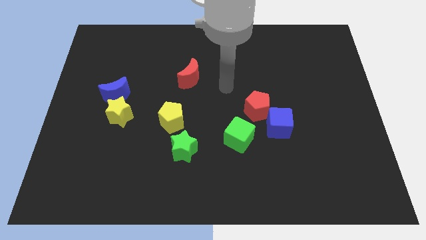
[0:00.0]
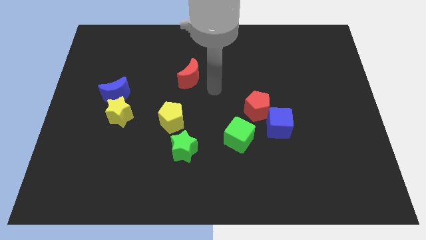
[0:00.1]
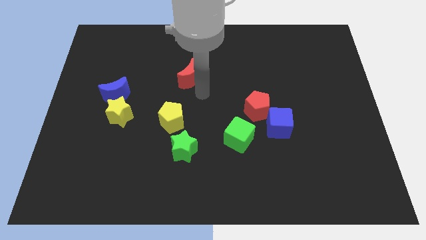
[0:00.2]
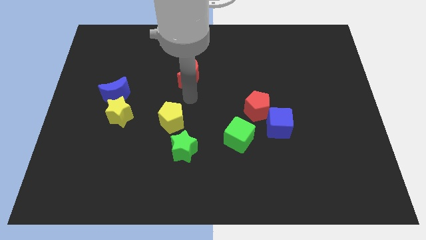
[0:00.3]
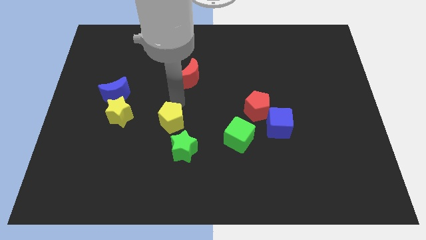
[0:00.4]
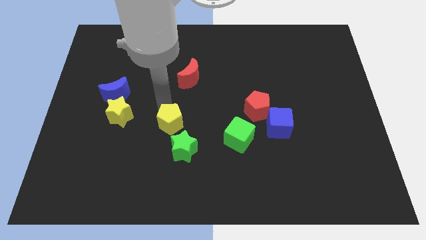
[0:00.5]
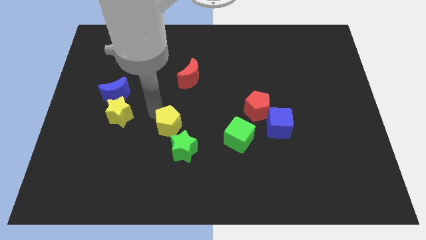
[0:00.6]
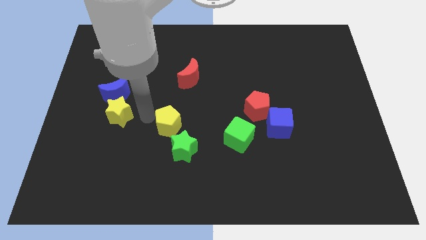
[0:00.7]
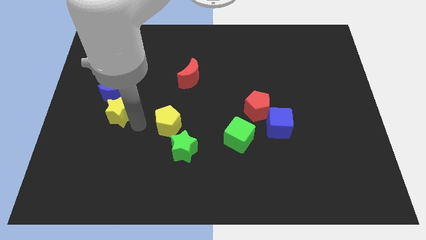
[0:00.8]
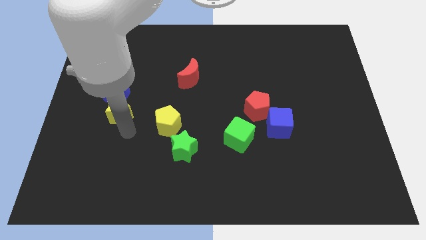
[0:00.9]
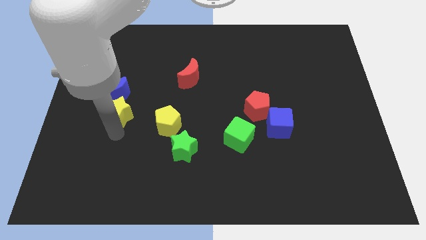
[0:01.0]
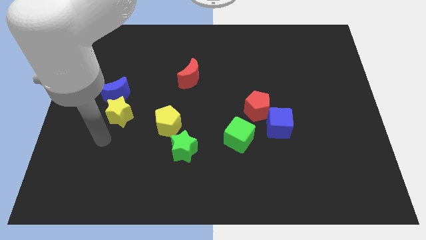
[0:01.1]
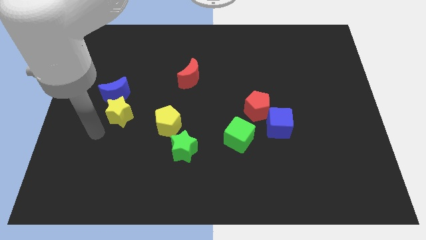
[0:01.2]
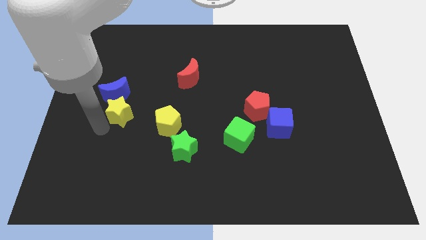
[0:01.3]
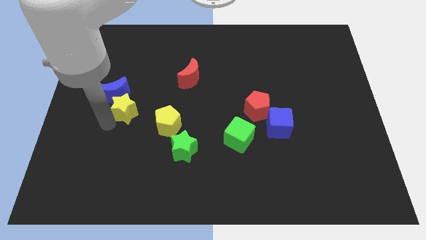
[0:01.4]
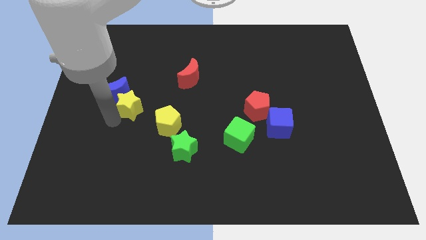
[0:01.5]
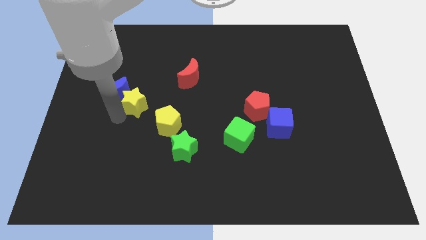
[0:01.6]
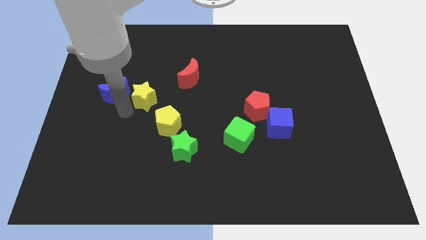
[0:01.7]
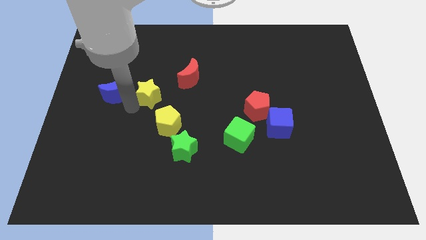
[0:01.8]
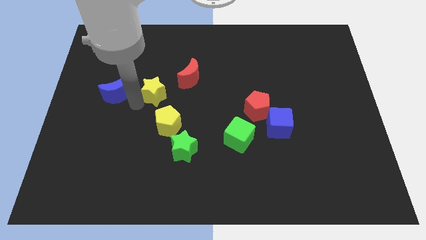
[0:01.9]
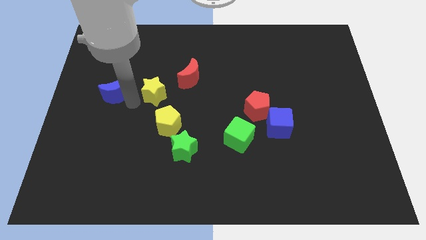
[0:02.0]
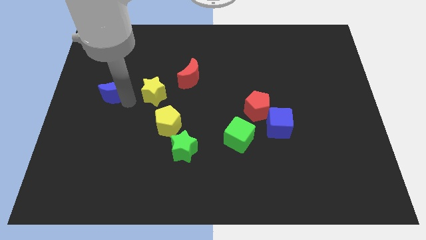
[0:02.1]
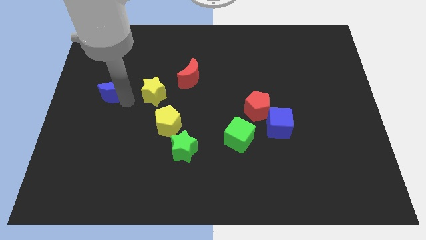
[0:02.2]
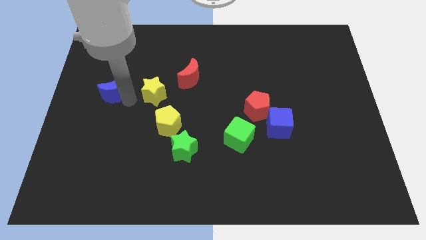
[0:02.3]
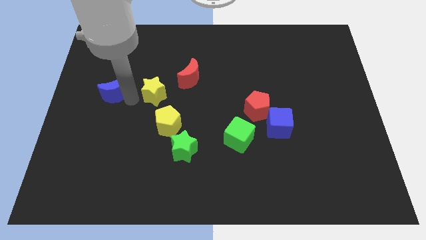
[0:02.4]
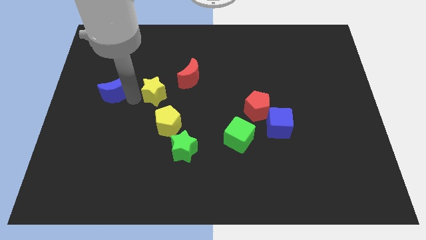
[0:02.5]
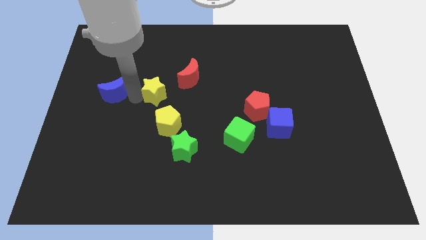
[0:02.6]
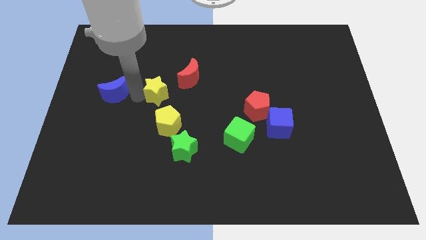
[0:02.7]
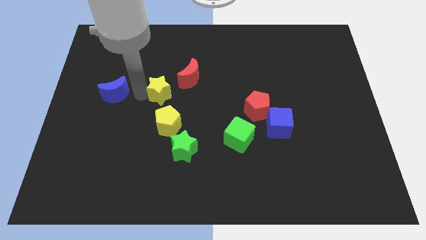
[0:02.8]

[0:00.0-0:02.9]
slightly slide the yellow star right

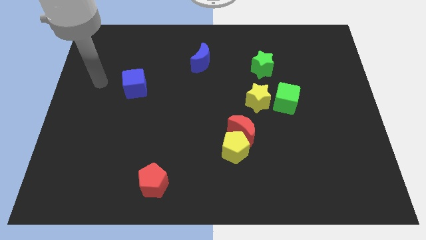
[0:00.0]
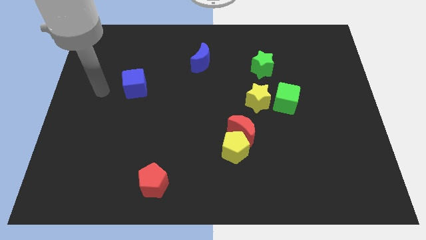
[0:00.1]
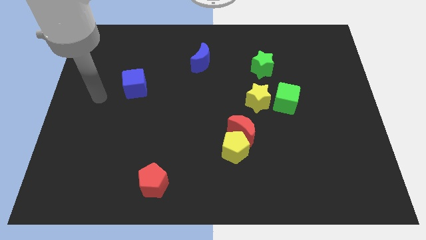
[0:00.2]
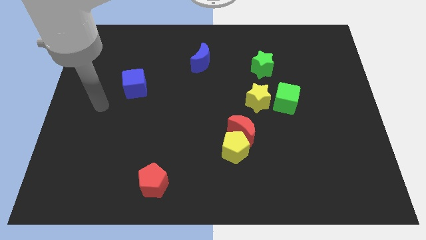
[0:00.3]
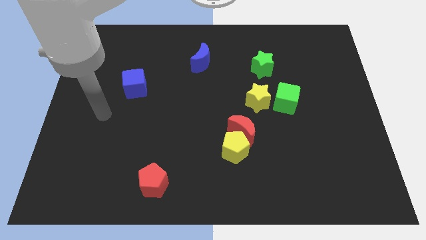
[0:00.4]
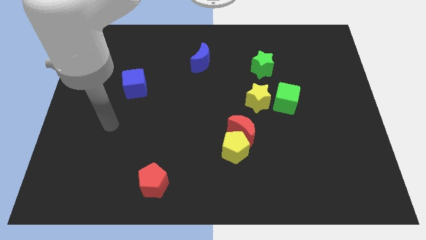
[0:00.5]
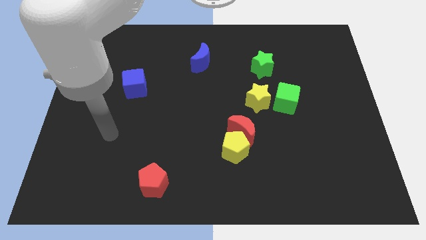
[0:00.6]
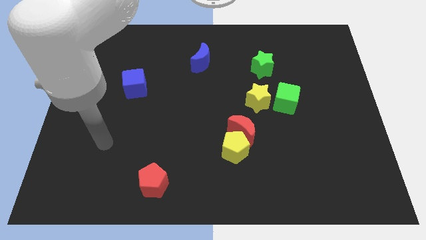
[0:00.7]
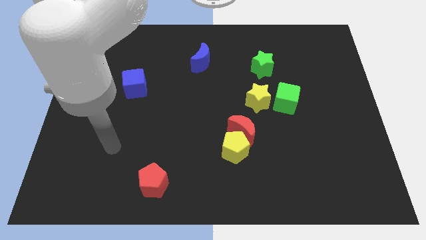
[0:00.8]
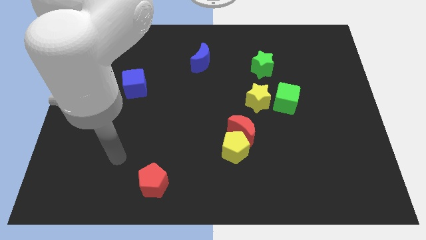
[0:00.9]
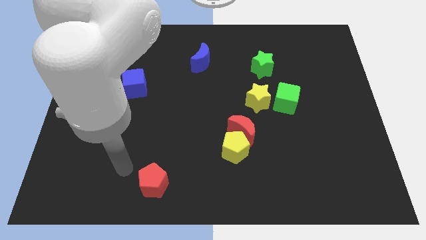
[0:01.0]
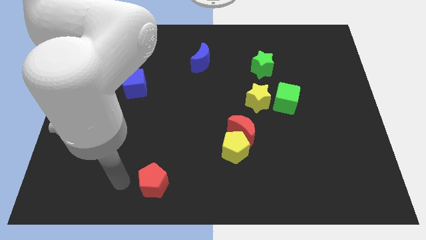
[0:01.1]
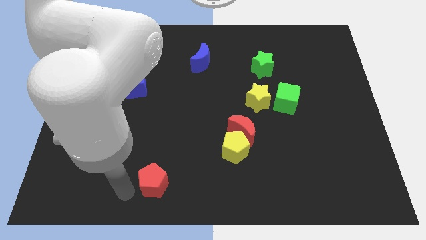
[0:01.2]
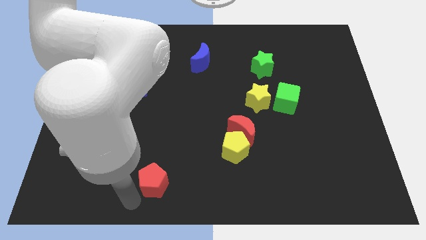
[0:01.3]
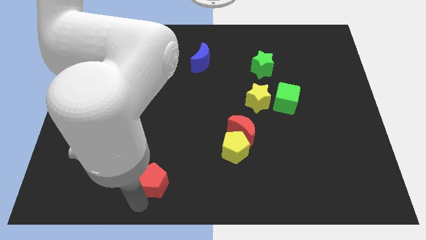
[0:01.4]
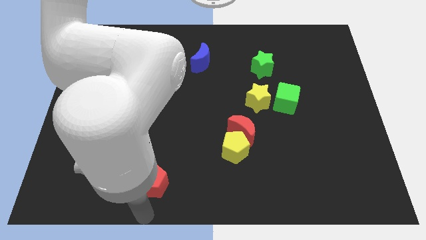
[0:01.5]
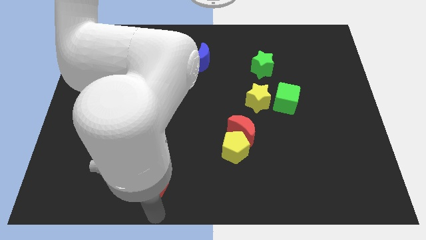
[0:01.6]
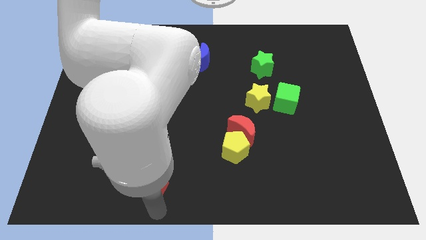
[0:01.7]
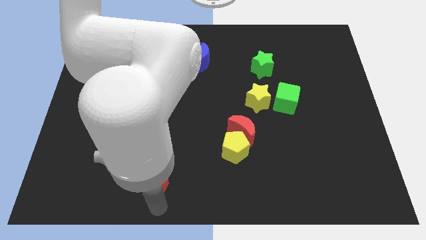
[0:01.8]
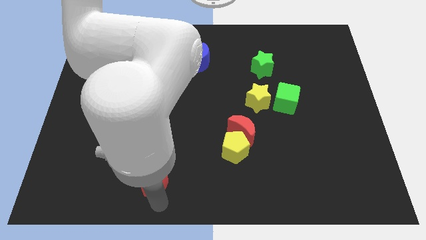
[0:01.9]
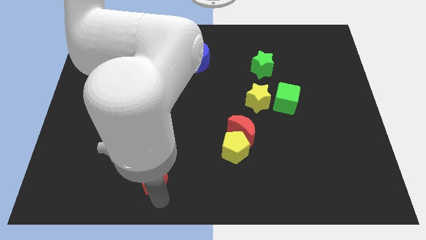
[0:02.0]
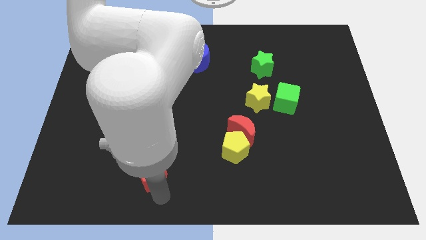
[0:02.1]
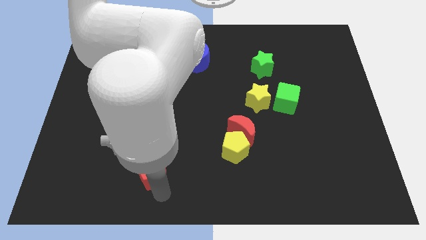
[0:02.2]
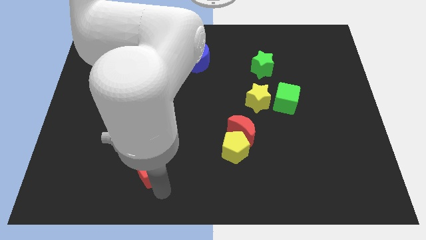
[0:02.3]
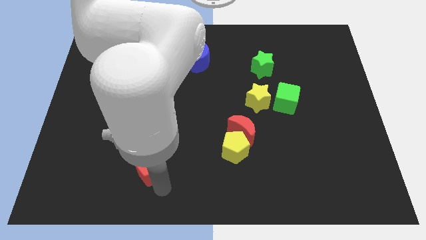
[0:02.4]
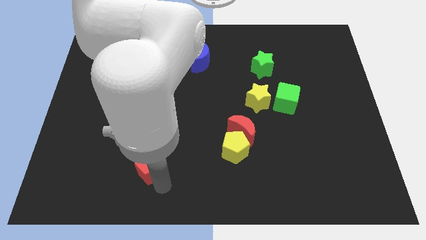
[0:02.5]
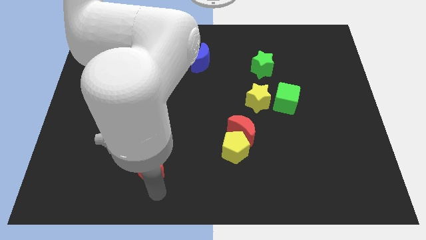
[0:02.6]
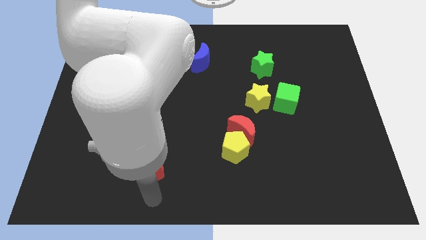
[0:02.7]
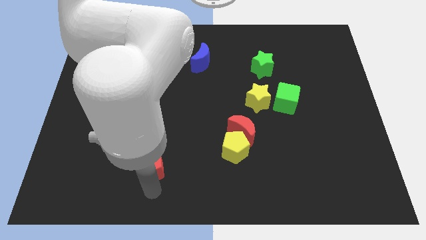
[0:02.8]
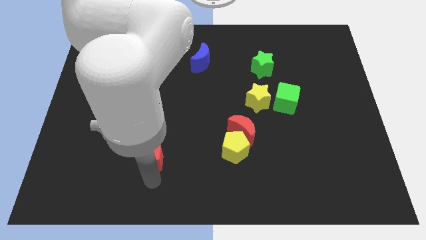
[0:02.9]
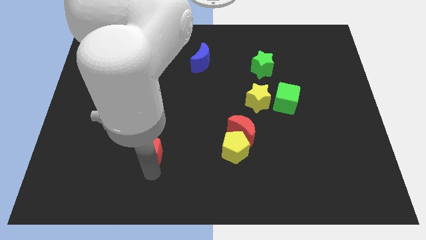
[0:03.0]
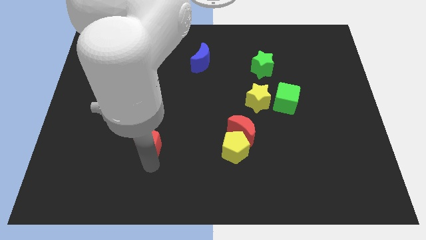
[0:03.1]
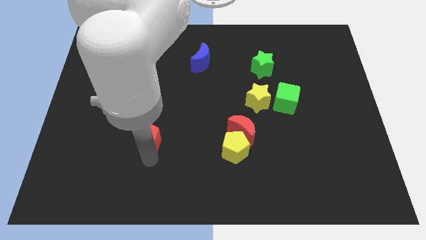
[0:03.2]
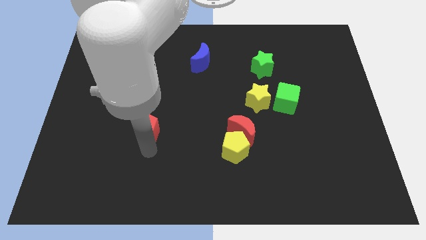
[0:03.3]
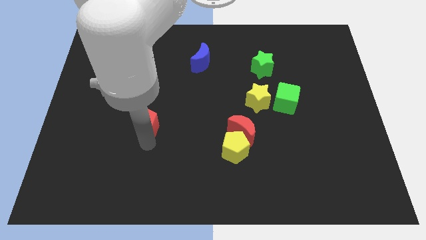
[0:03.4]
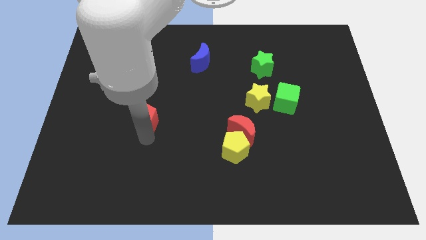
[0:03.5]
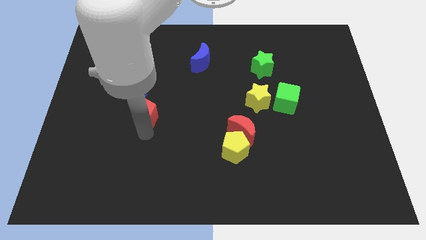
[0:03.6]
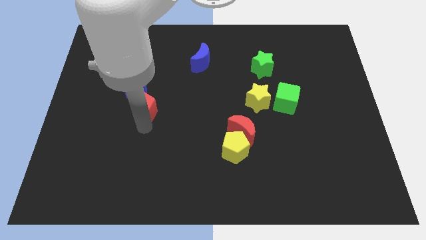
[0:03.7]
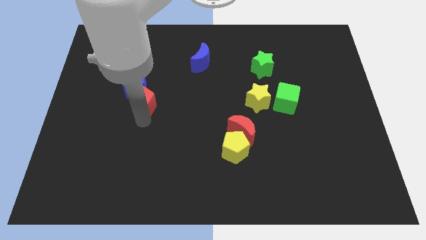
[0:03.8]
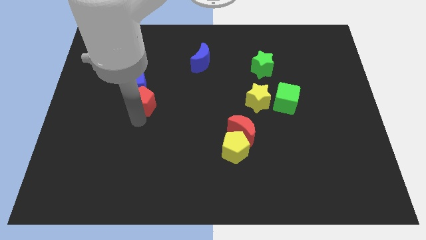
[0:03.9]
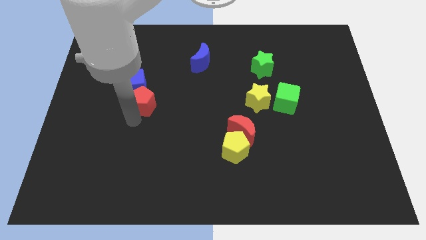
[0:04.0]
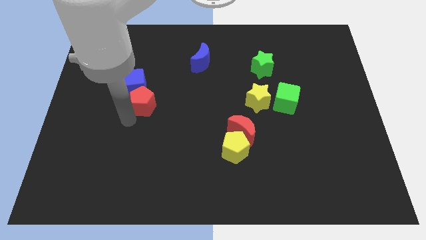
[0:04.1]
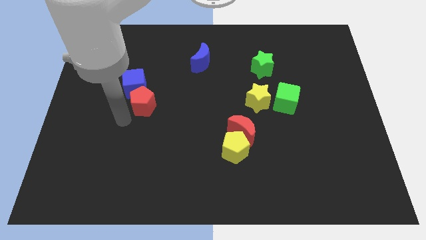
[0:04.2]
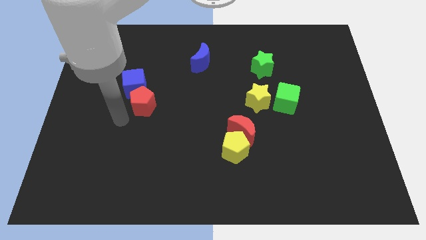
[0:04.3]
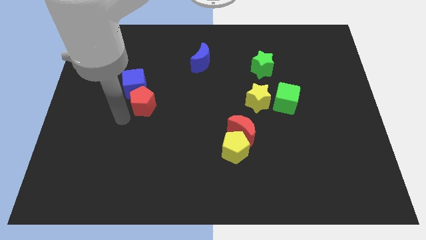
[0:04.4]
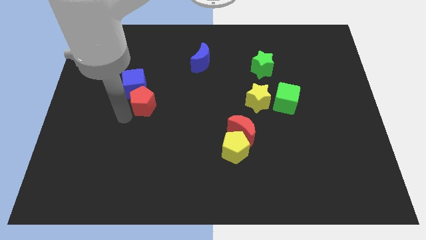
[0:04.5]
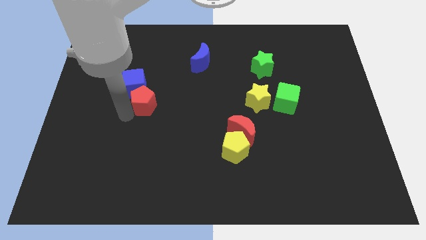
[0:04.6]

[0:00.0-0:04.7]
slide the red pentagon upwards

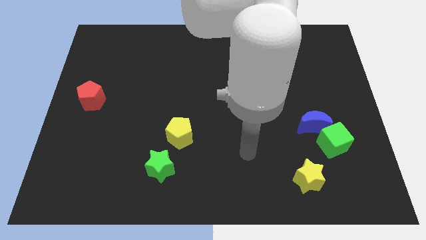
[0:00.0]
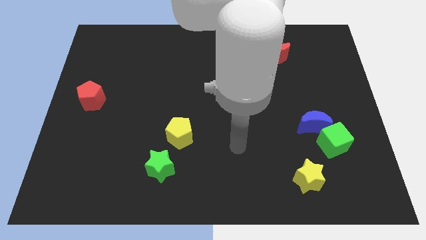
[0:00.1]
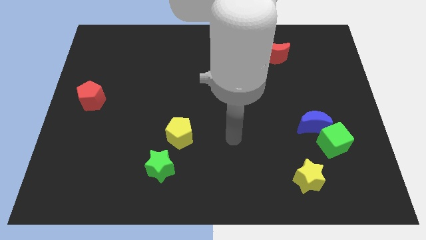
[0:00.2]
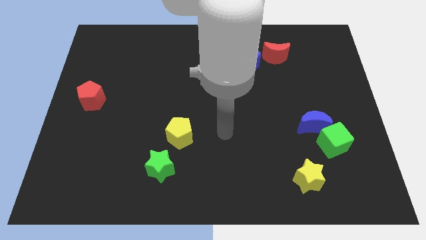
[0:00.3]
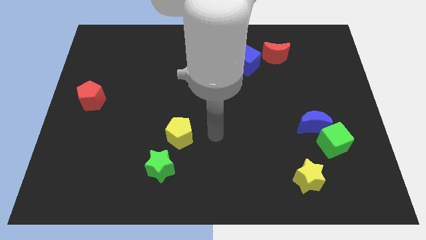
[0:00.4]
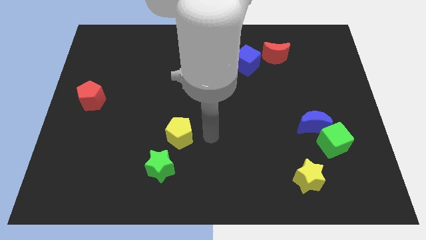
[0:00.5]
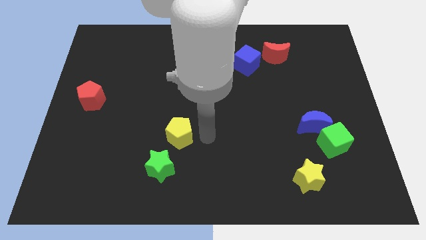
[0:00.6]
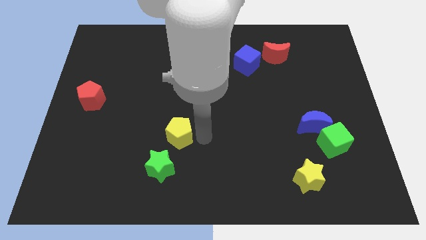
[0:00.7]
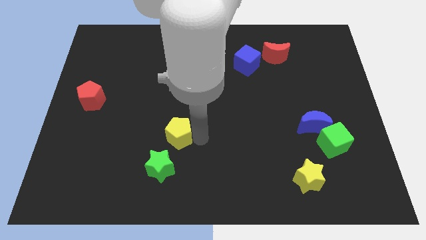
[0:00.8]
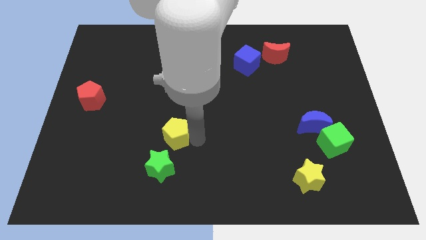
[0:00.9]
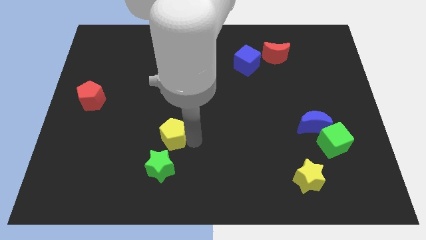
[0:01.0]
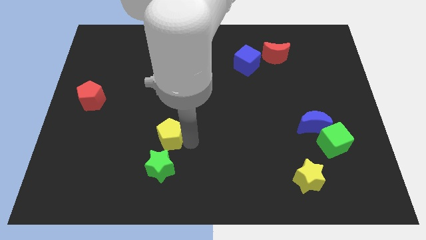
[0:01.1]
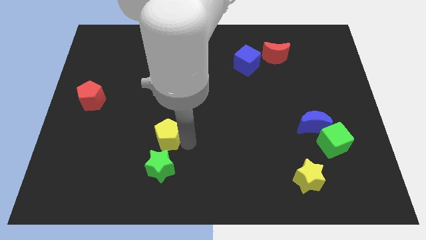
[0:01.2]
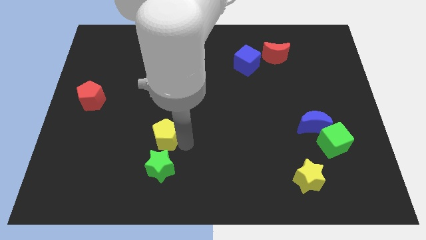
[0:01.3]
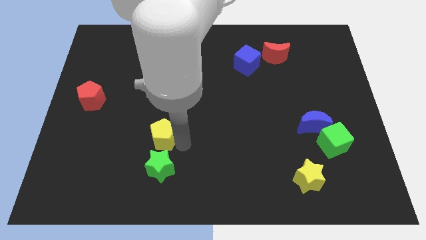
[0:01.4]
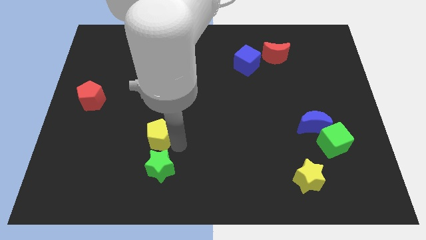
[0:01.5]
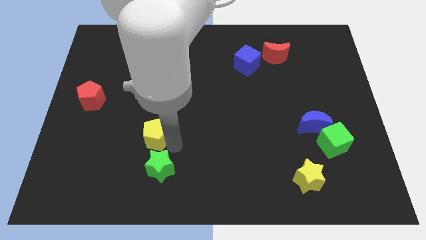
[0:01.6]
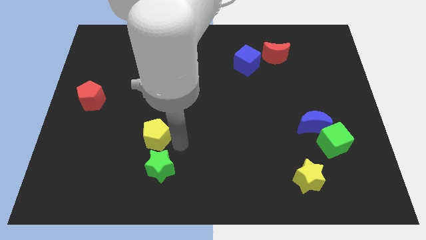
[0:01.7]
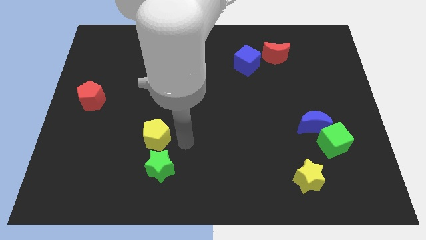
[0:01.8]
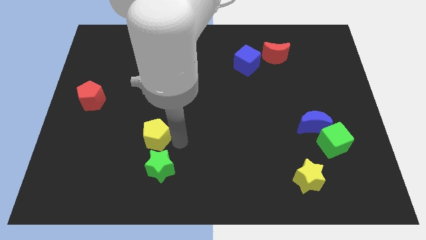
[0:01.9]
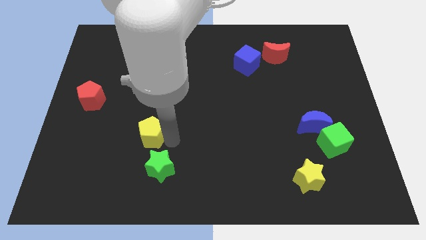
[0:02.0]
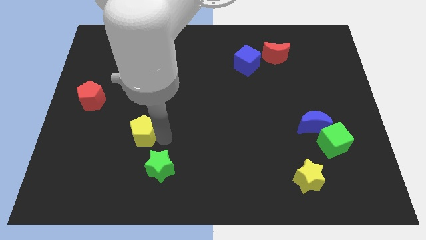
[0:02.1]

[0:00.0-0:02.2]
slide the yellow pentagon a little to the left
